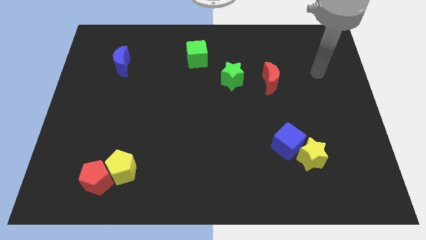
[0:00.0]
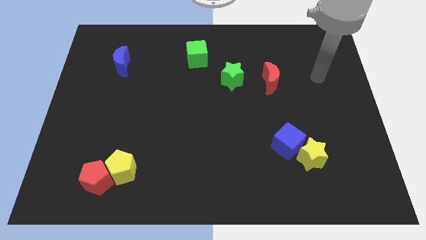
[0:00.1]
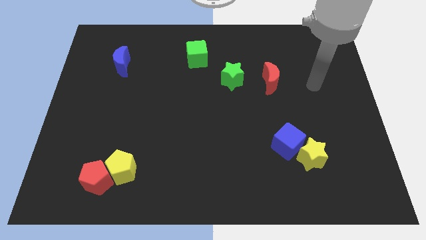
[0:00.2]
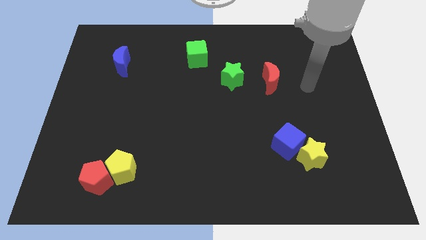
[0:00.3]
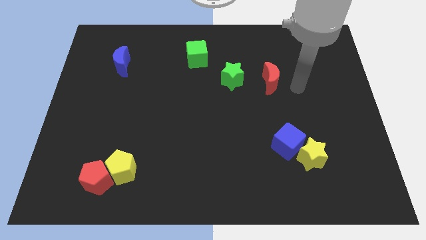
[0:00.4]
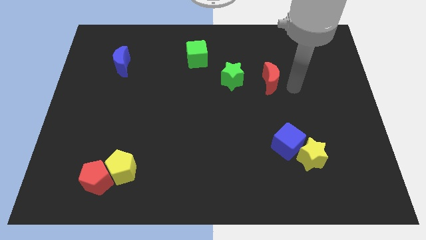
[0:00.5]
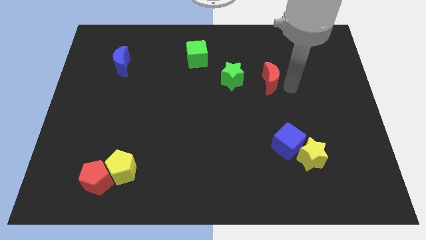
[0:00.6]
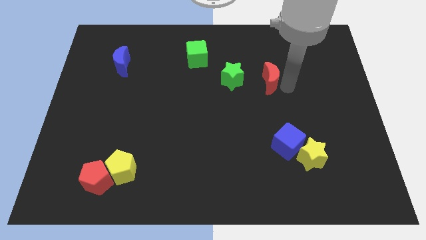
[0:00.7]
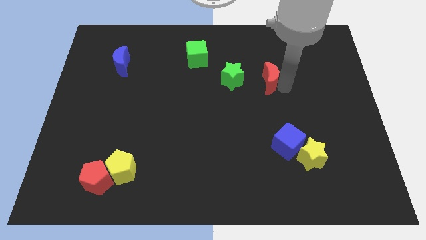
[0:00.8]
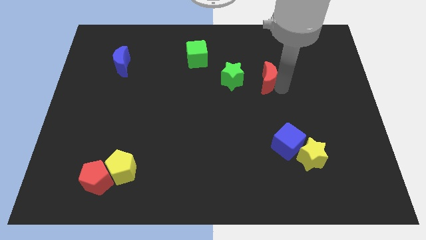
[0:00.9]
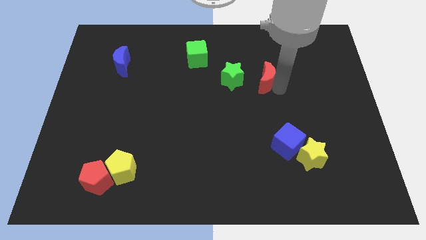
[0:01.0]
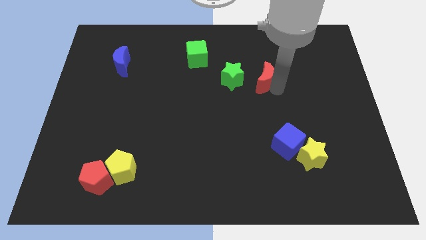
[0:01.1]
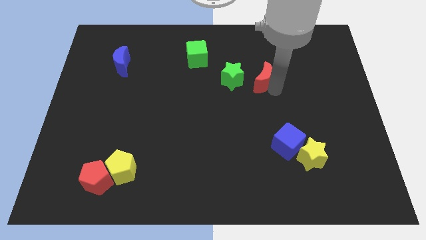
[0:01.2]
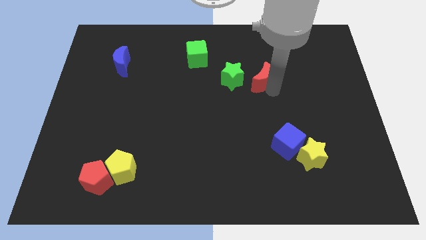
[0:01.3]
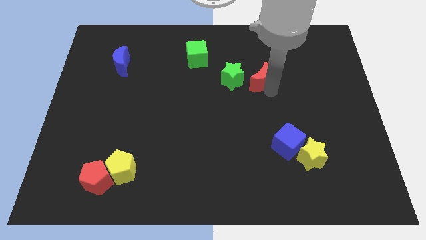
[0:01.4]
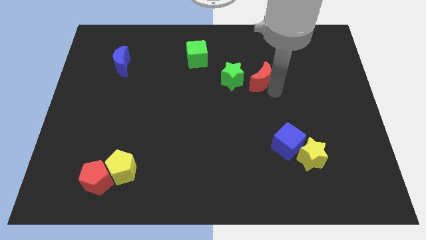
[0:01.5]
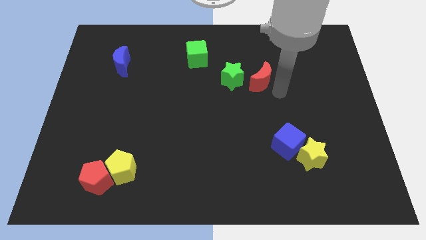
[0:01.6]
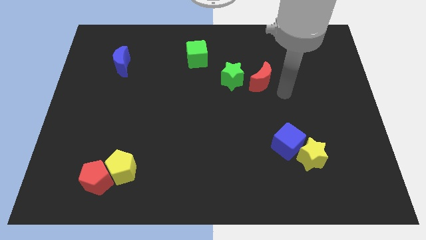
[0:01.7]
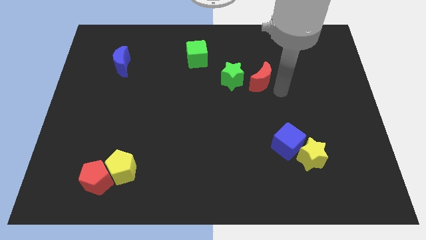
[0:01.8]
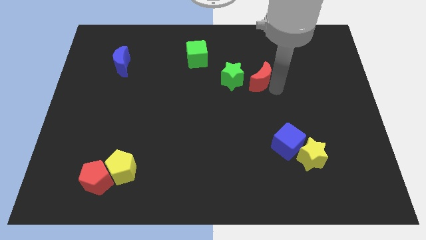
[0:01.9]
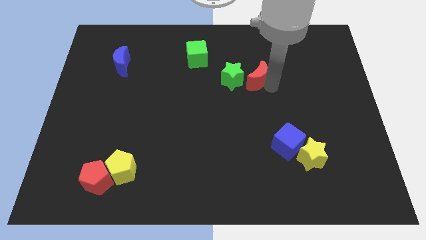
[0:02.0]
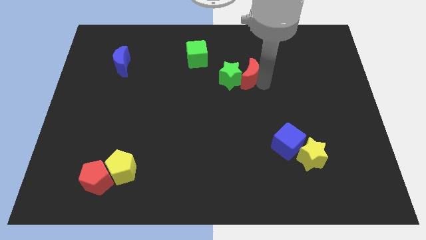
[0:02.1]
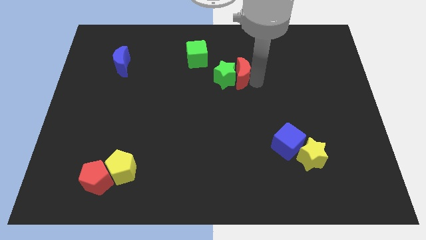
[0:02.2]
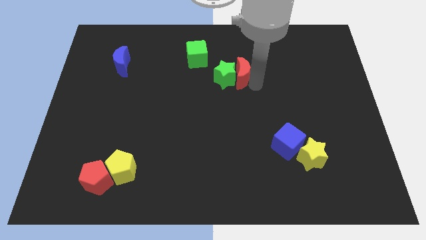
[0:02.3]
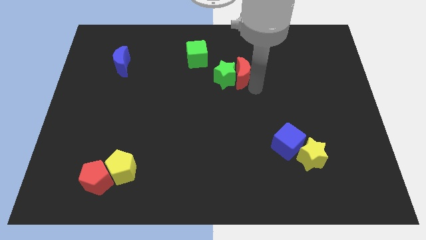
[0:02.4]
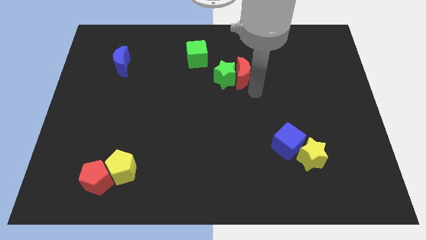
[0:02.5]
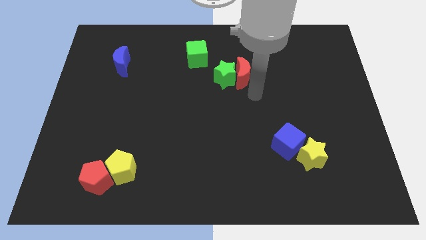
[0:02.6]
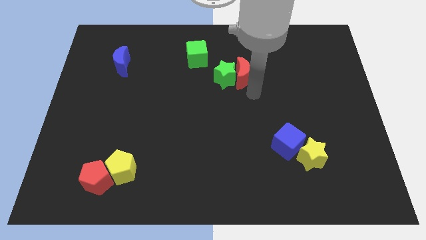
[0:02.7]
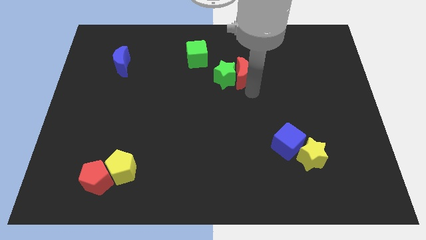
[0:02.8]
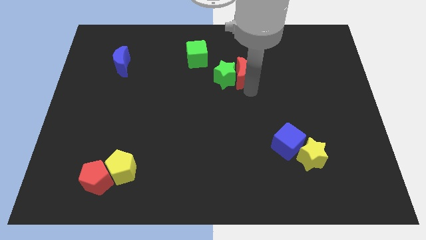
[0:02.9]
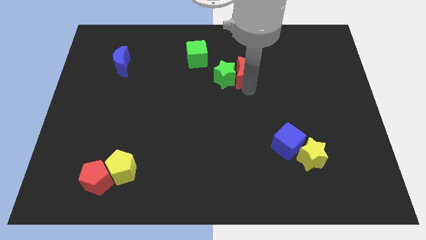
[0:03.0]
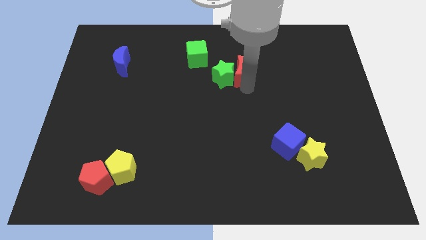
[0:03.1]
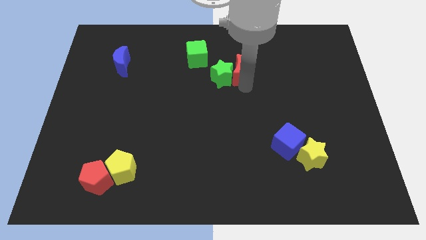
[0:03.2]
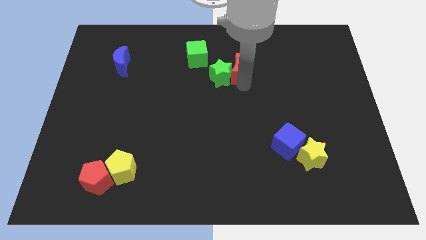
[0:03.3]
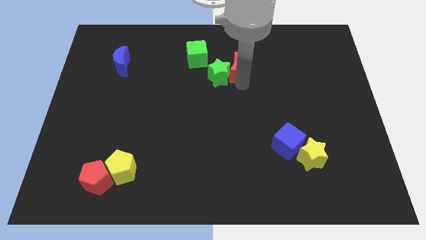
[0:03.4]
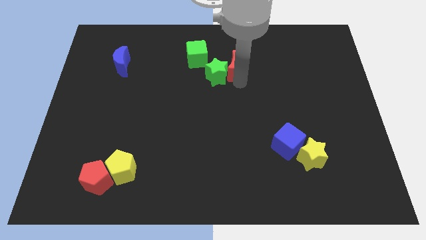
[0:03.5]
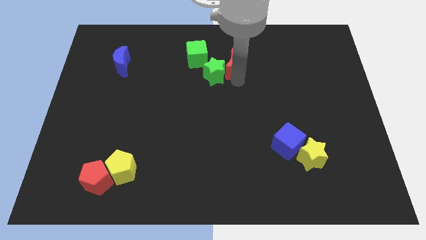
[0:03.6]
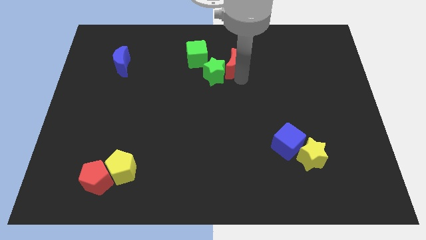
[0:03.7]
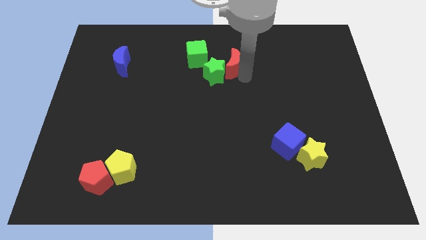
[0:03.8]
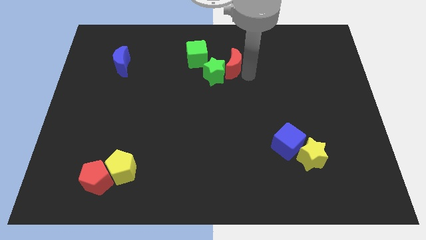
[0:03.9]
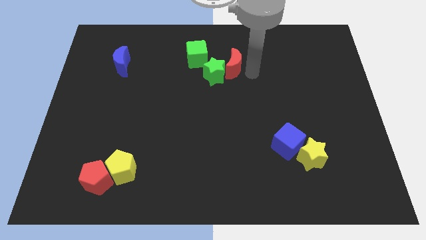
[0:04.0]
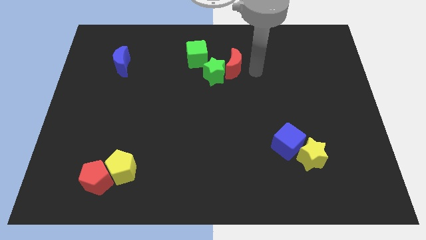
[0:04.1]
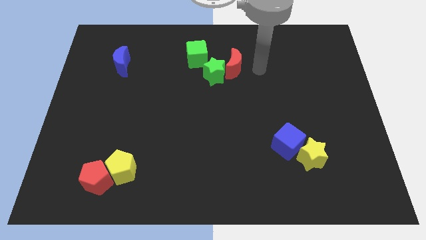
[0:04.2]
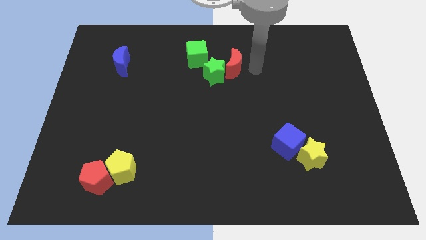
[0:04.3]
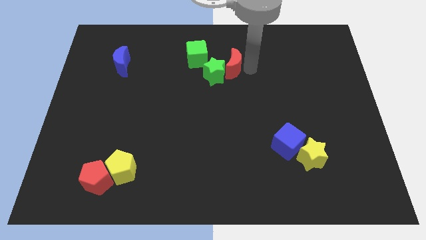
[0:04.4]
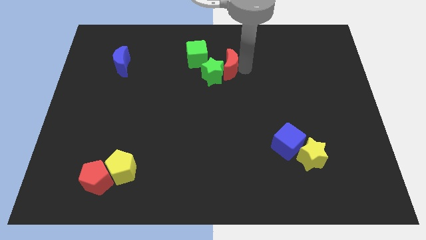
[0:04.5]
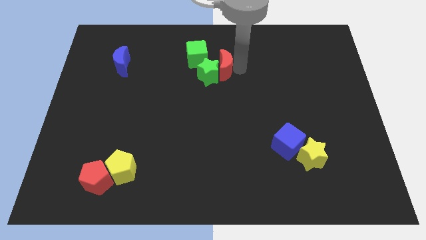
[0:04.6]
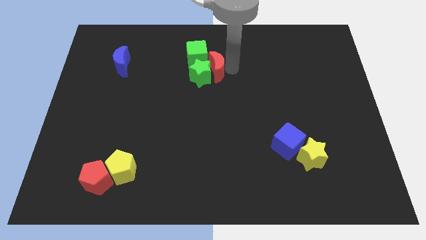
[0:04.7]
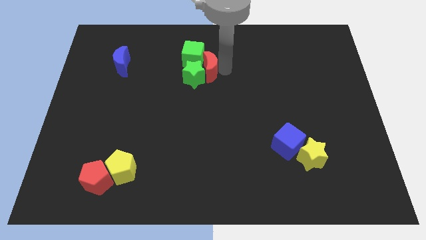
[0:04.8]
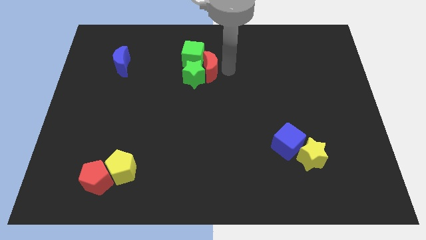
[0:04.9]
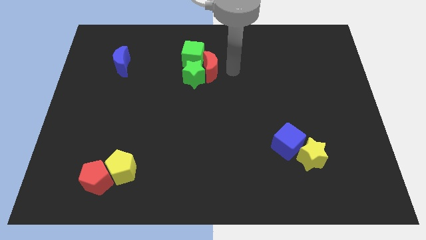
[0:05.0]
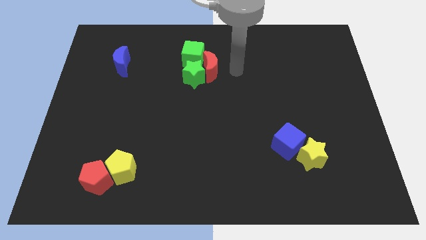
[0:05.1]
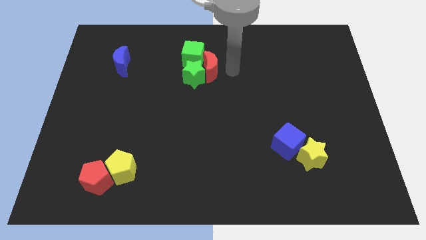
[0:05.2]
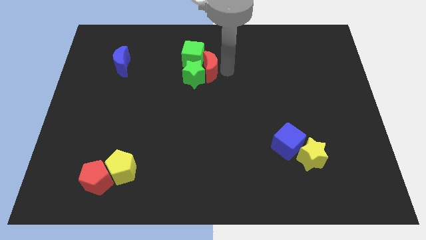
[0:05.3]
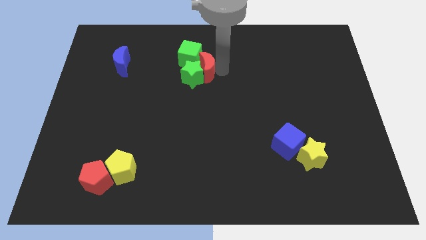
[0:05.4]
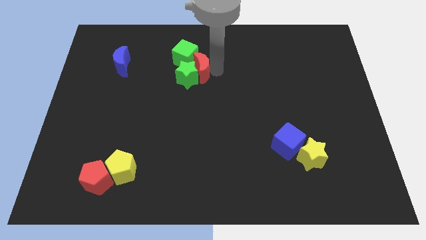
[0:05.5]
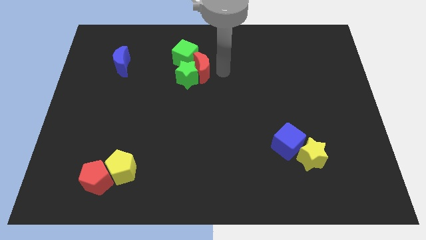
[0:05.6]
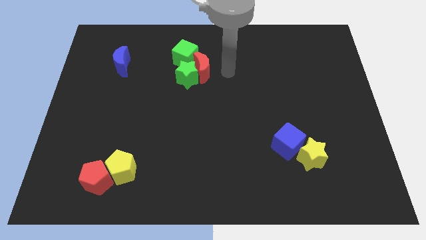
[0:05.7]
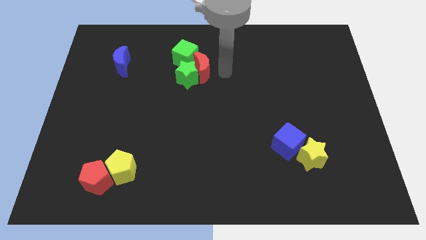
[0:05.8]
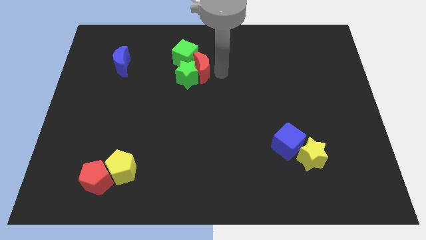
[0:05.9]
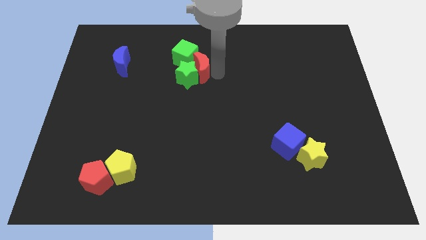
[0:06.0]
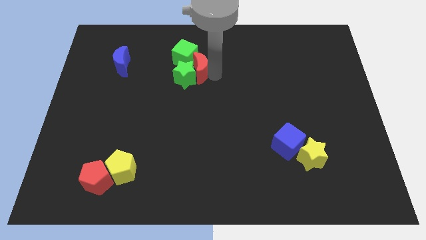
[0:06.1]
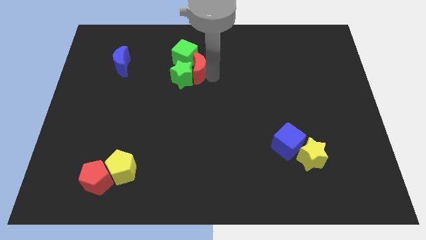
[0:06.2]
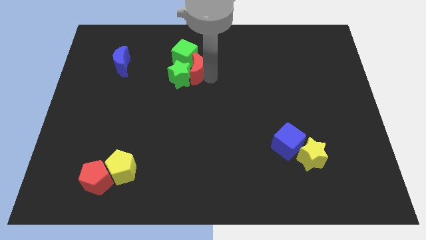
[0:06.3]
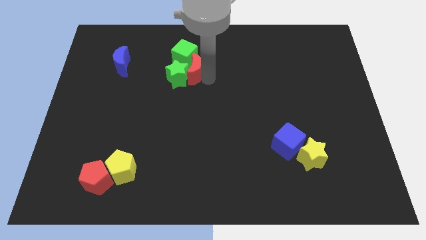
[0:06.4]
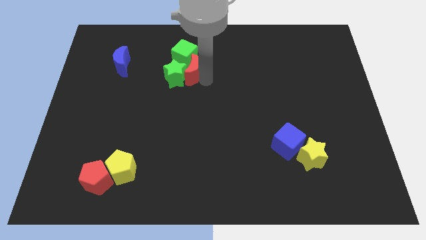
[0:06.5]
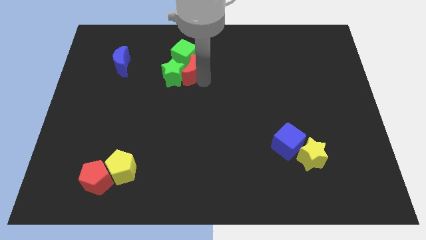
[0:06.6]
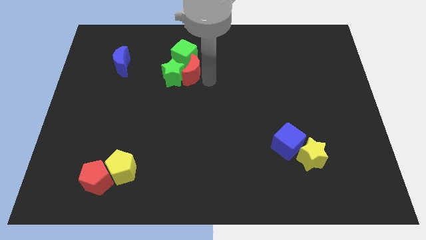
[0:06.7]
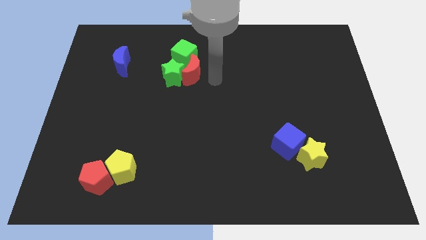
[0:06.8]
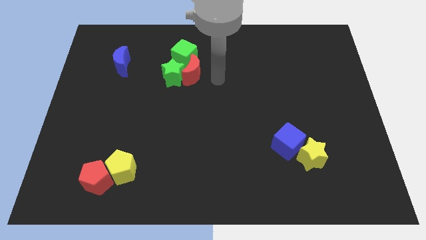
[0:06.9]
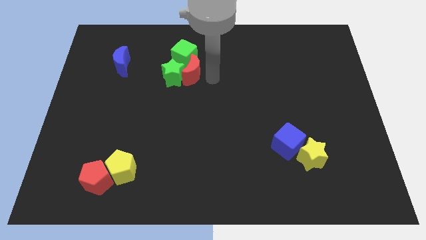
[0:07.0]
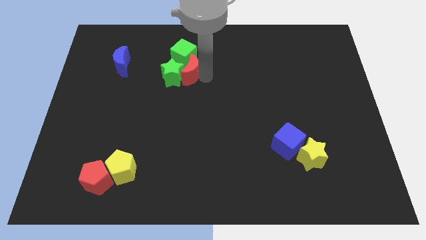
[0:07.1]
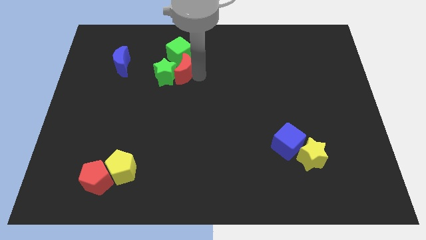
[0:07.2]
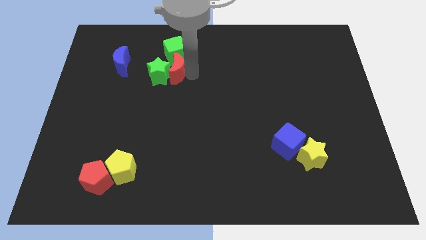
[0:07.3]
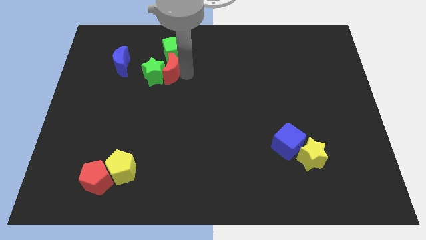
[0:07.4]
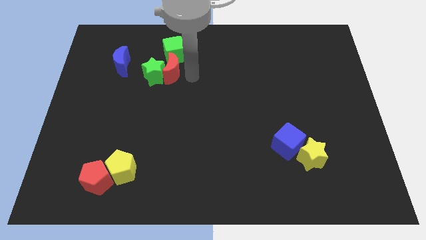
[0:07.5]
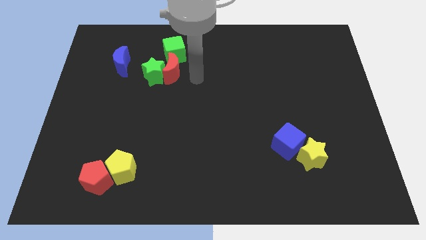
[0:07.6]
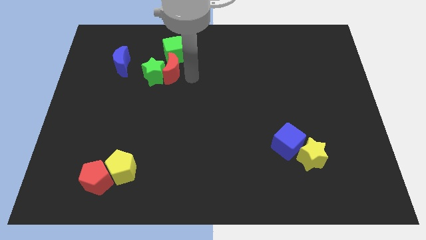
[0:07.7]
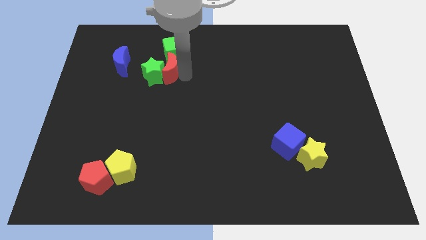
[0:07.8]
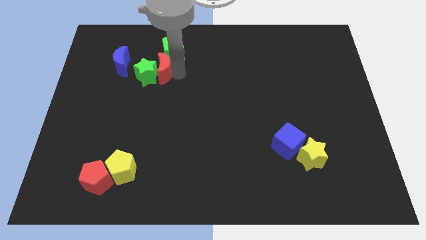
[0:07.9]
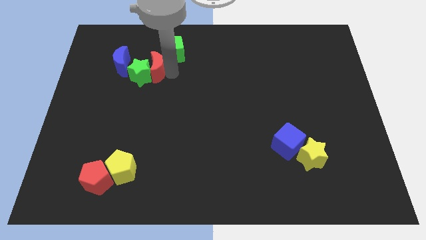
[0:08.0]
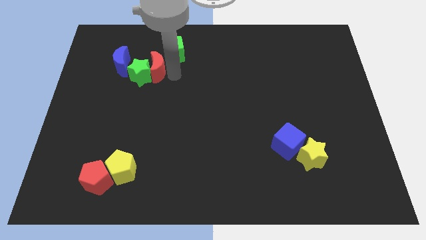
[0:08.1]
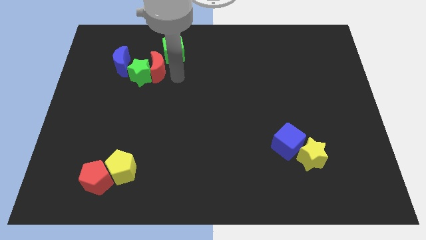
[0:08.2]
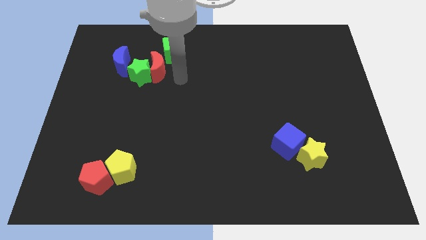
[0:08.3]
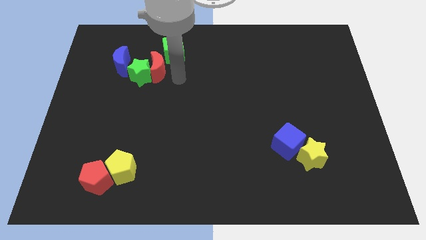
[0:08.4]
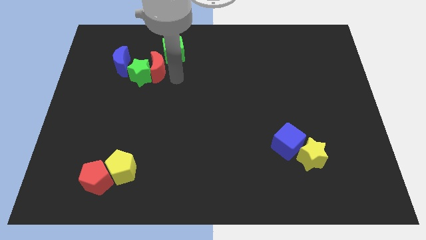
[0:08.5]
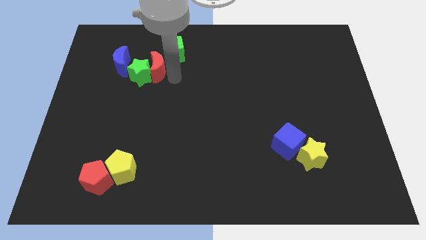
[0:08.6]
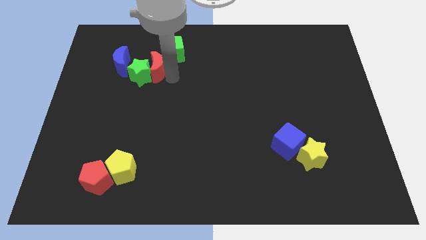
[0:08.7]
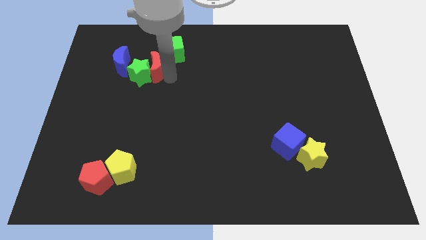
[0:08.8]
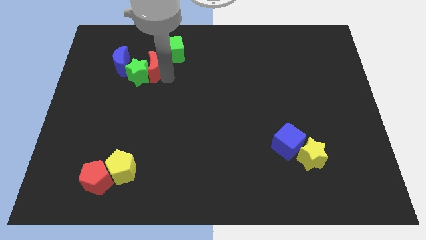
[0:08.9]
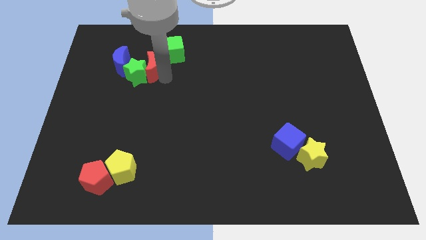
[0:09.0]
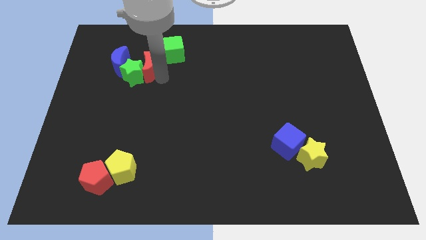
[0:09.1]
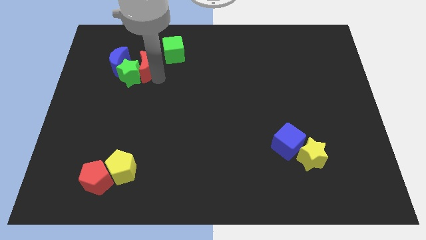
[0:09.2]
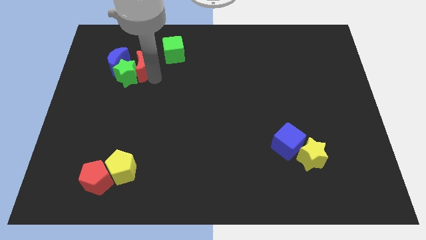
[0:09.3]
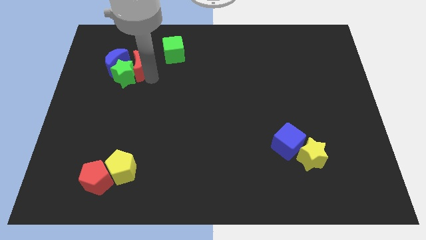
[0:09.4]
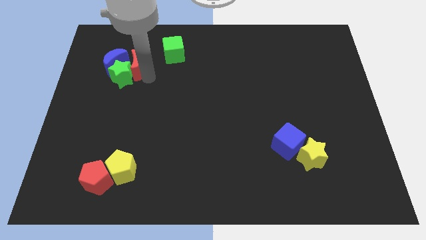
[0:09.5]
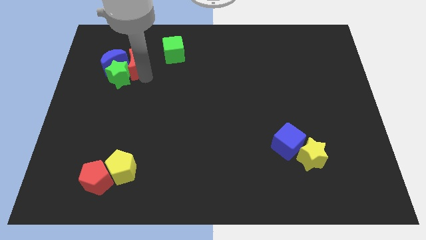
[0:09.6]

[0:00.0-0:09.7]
slide the red moon next to the blue moon
